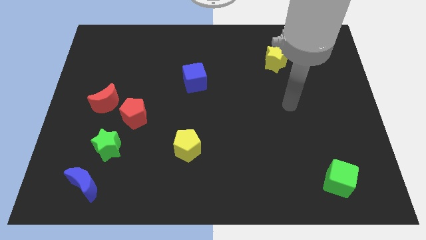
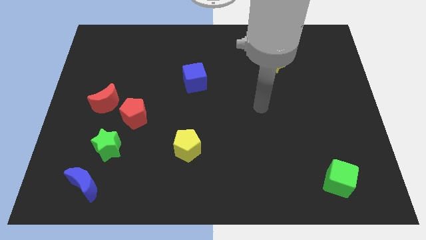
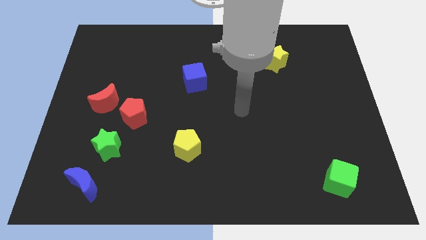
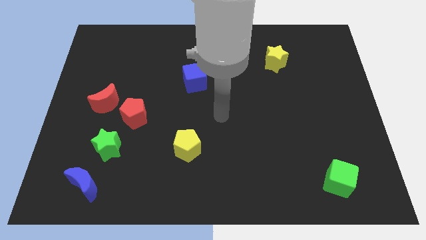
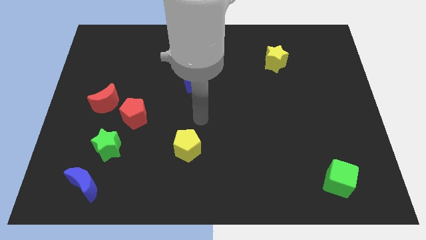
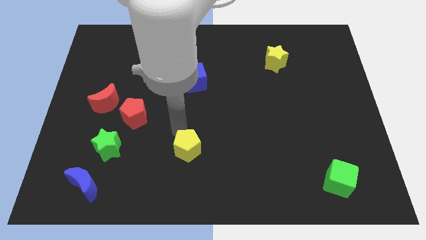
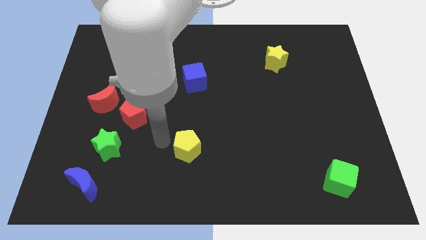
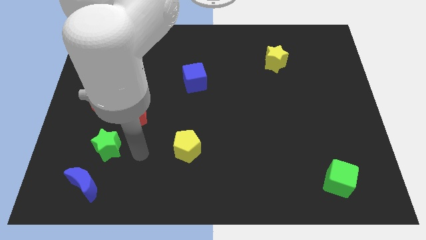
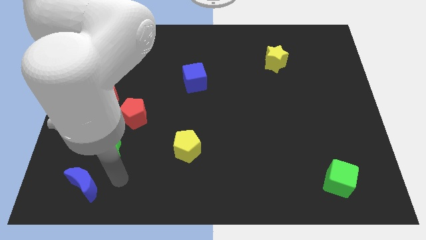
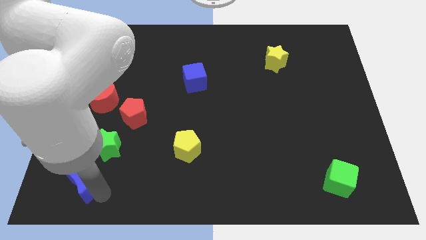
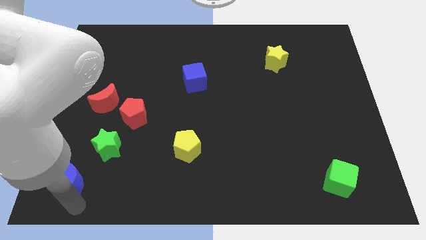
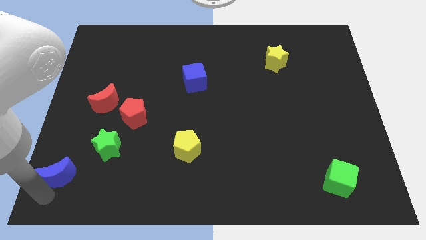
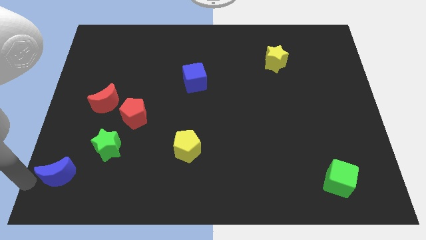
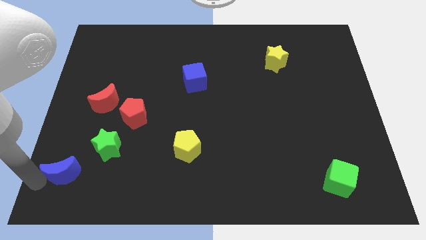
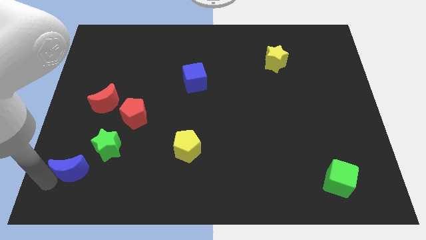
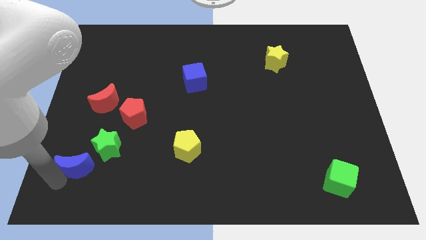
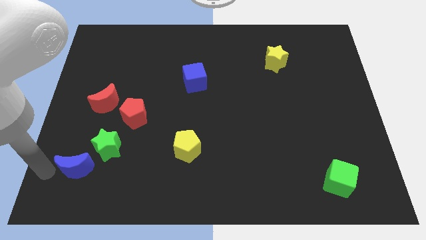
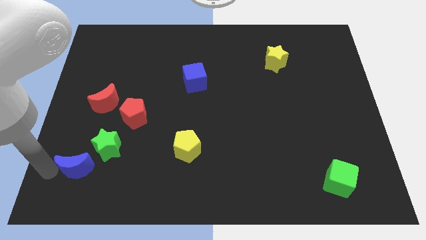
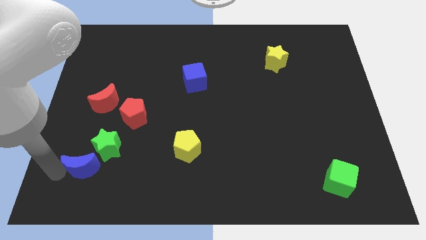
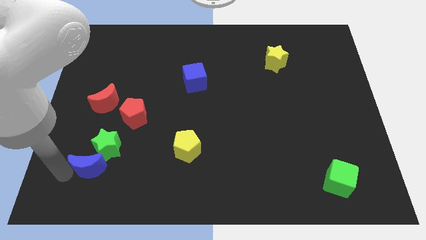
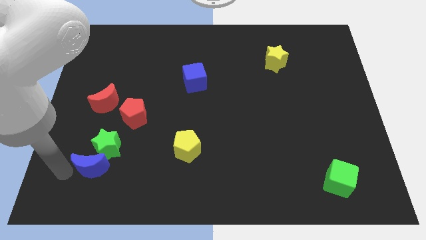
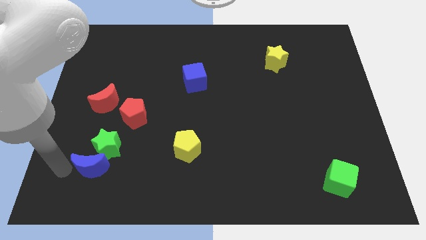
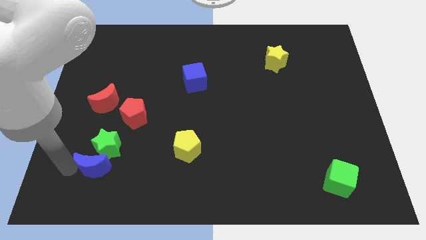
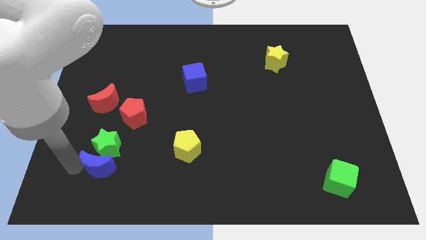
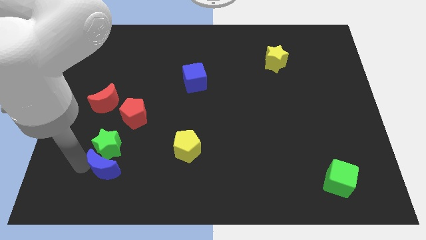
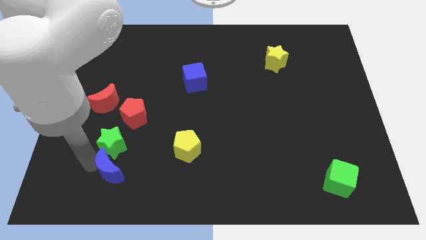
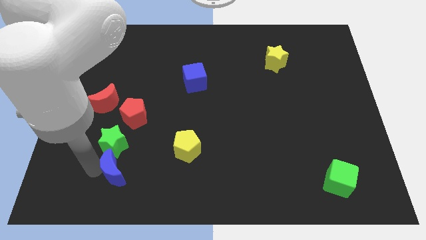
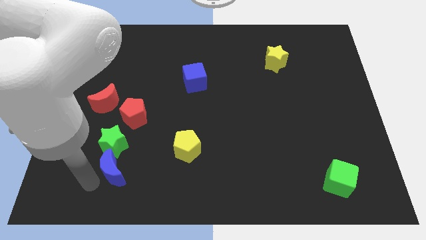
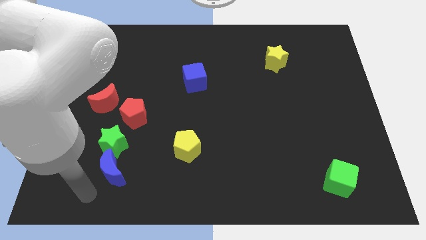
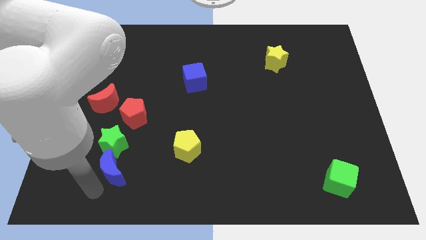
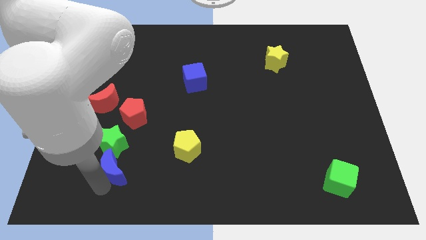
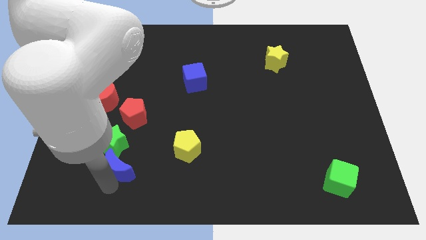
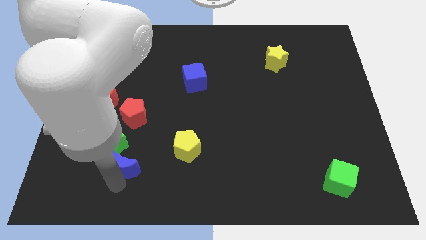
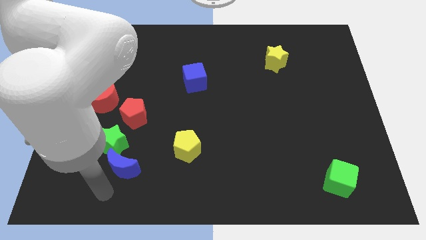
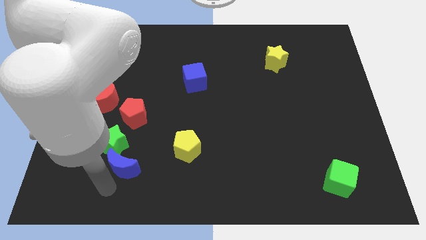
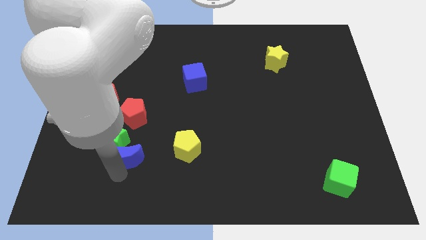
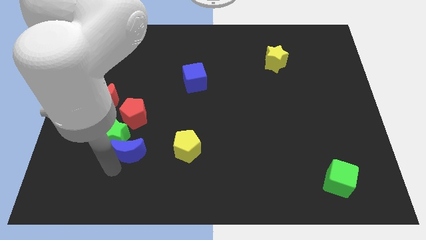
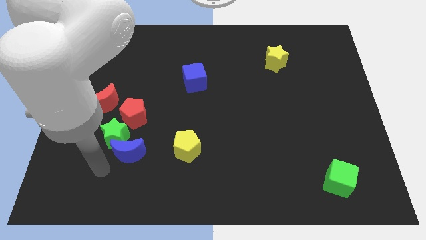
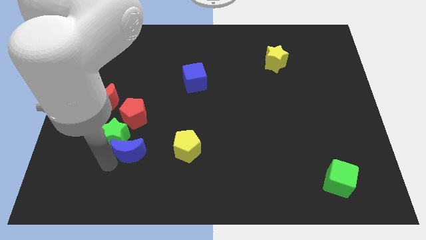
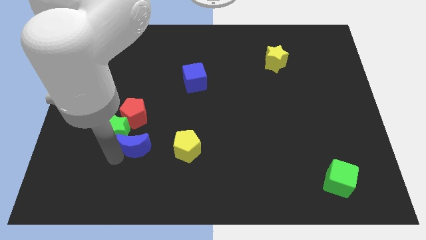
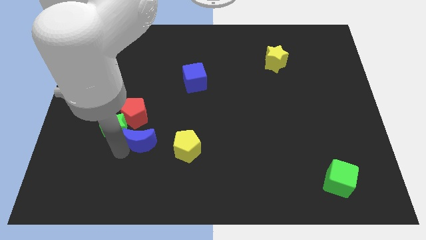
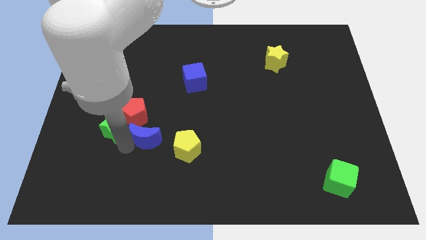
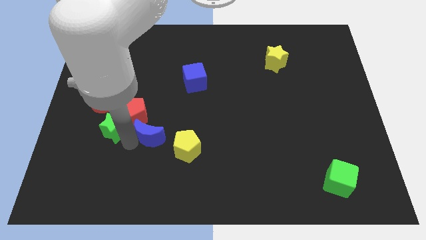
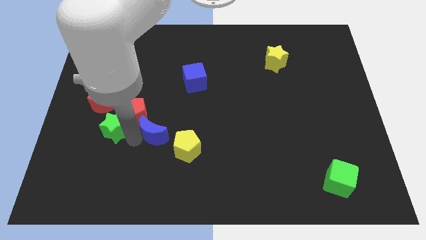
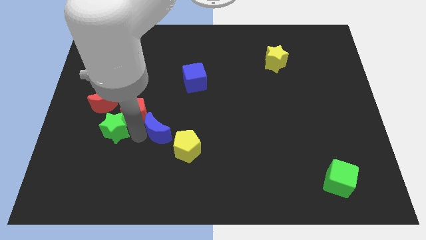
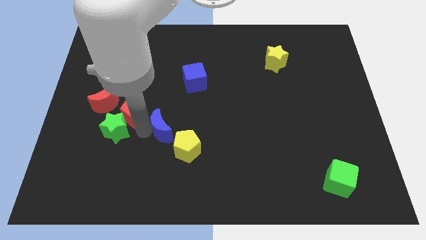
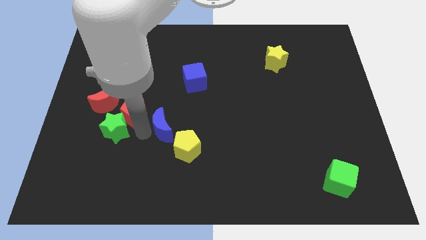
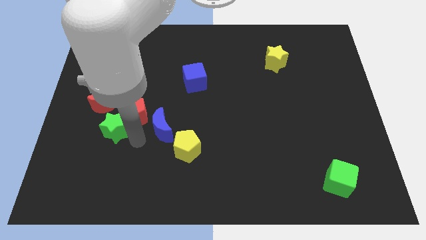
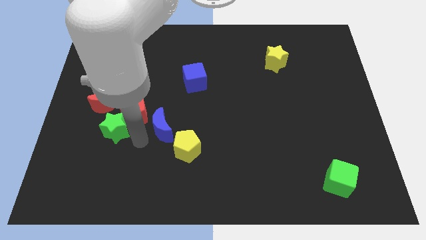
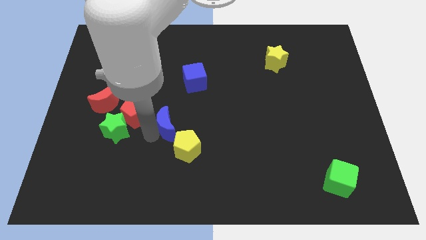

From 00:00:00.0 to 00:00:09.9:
move the blue moon above the yellow pentagon

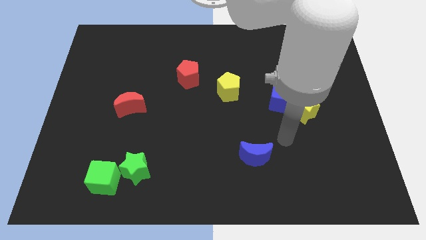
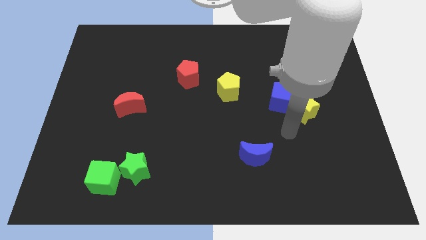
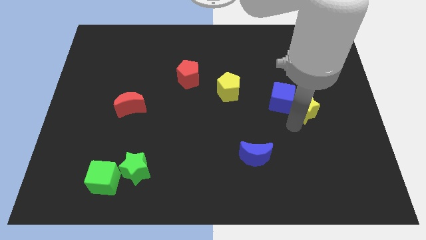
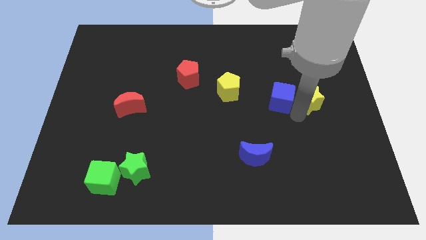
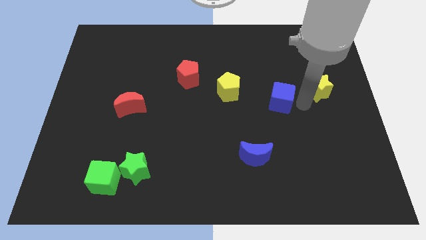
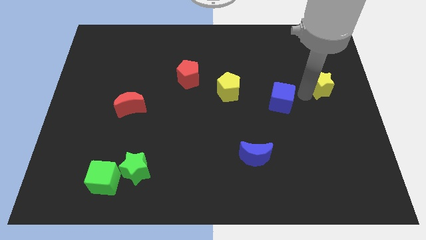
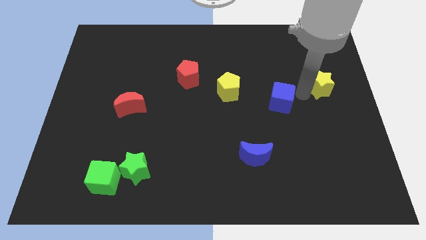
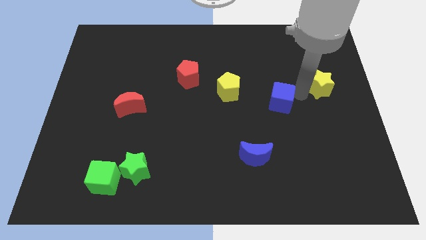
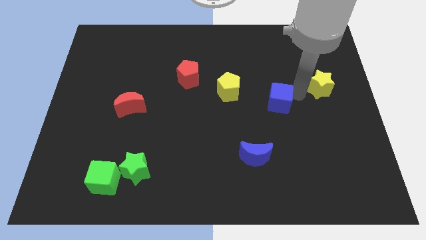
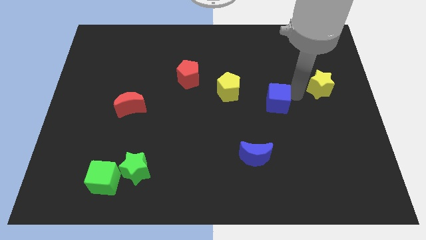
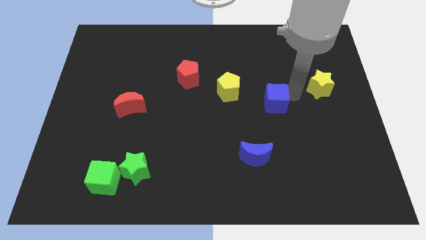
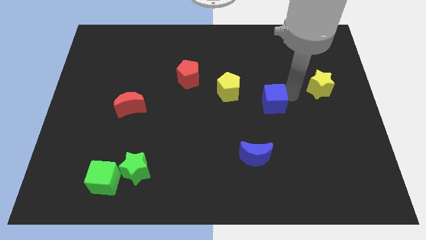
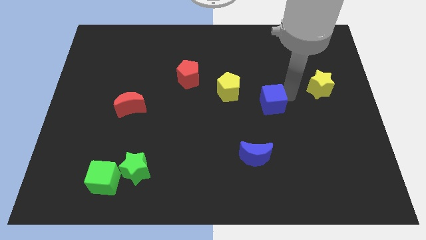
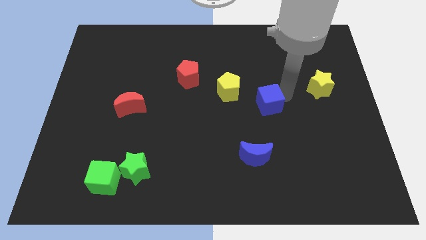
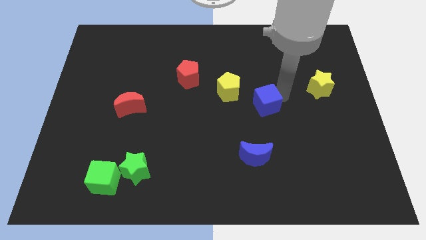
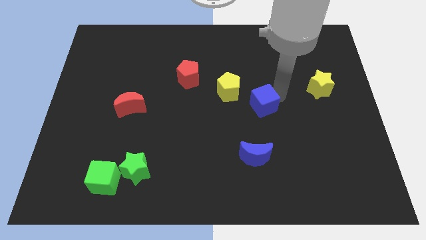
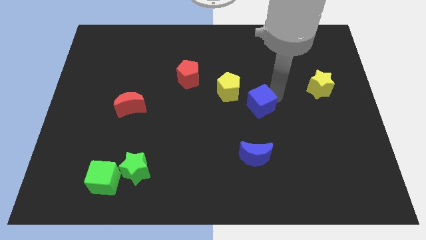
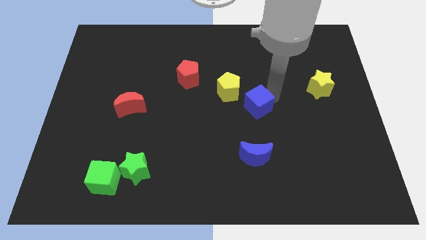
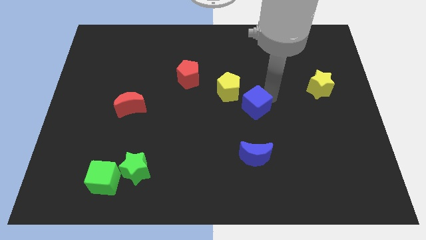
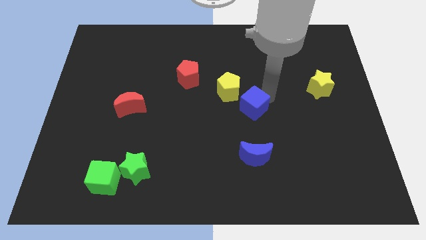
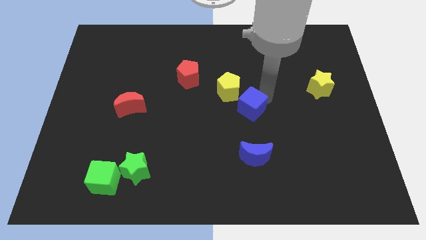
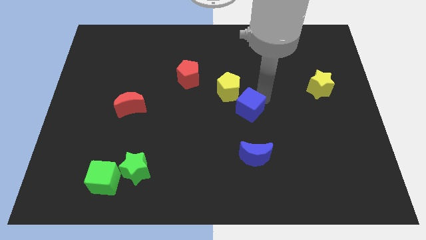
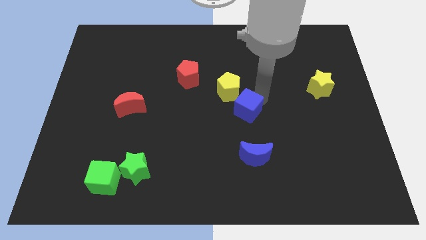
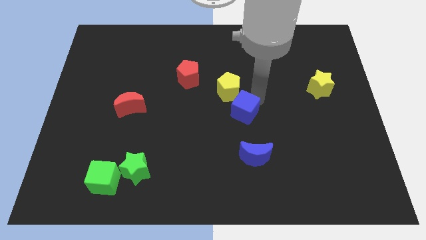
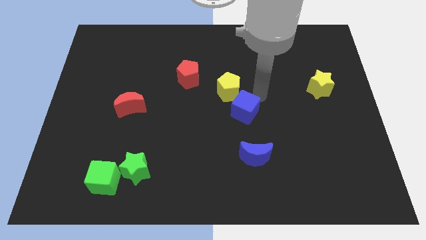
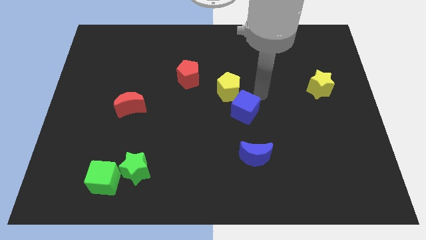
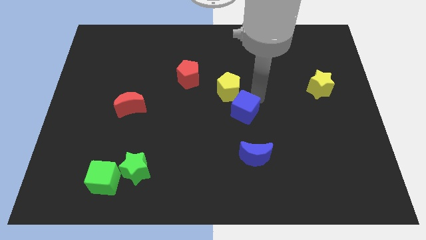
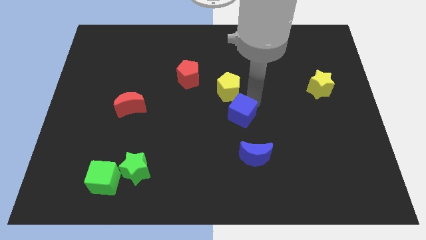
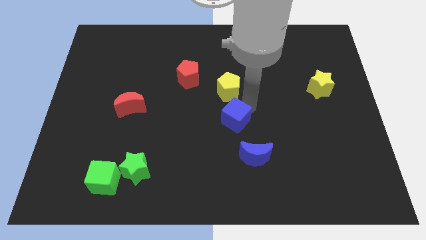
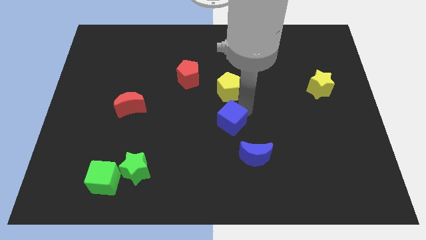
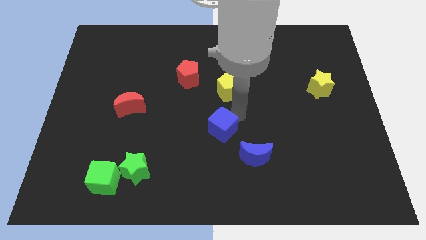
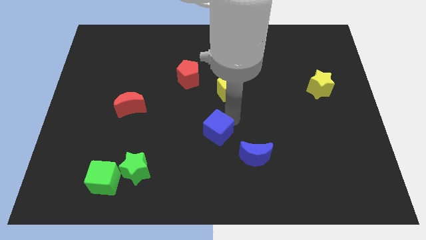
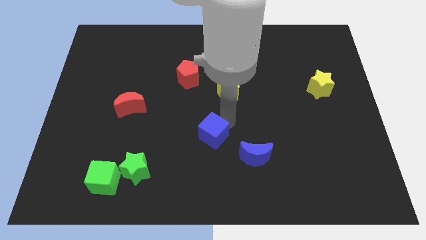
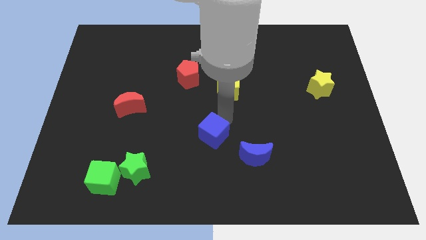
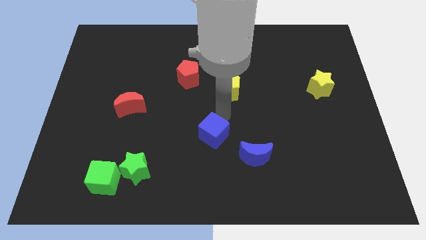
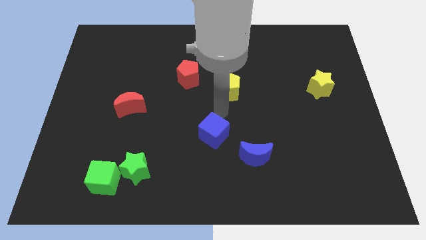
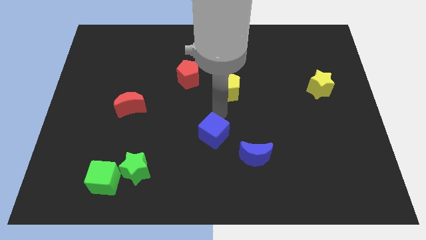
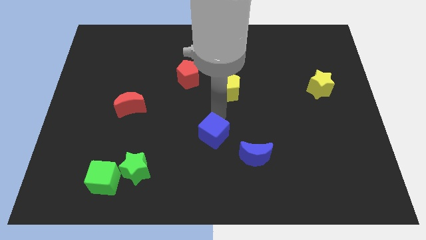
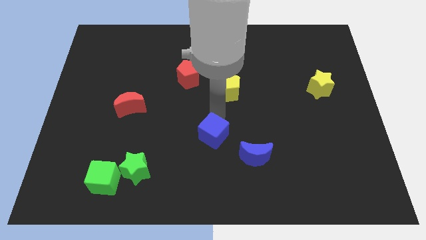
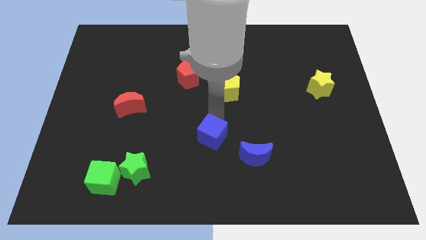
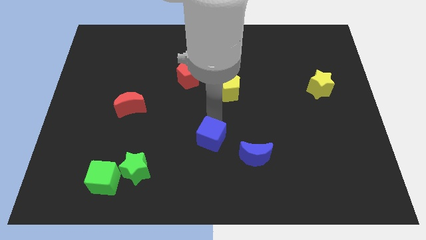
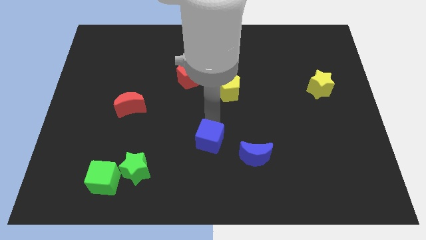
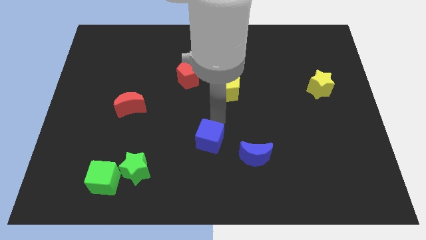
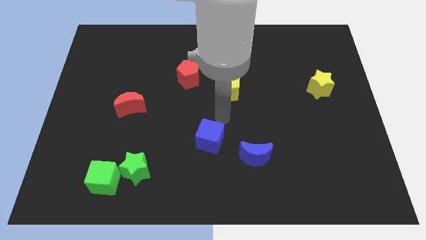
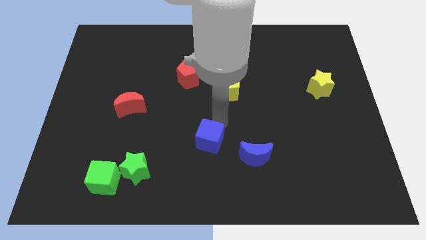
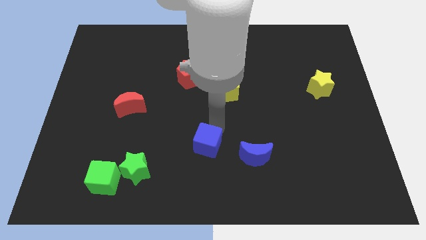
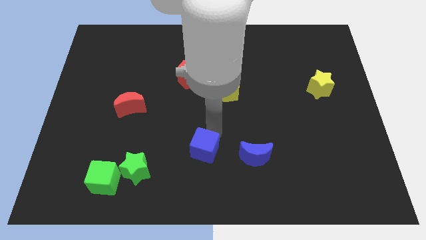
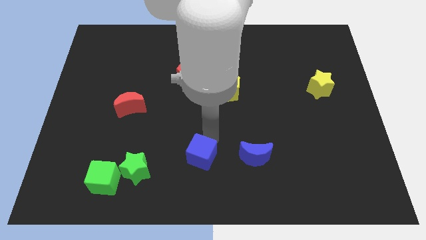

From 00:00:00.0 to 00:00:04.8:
put the blue cube to the right side of the green star
